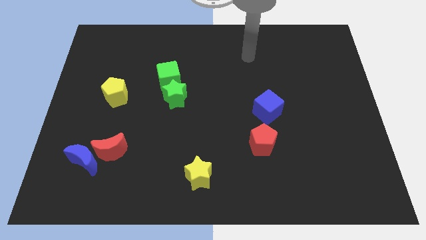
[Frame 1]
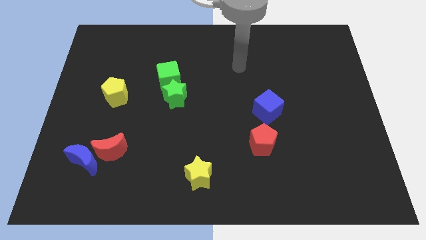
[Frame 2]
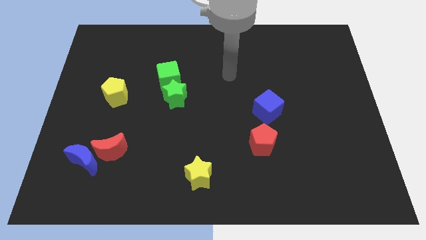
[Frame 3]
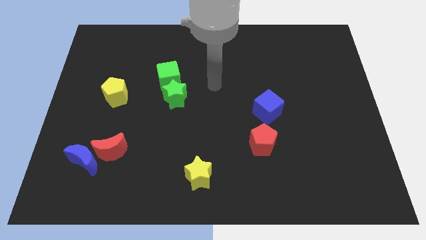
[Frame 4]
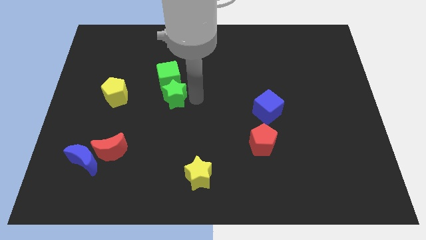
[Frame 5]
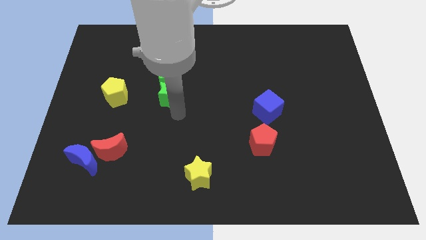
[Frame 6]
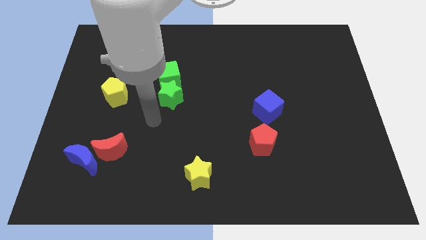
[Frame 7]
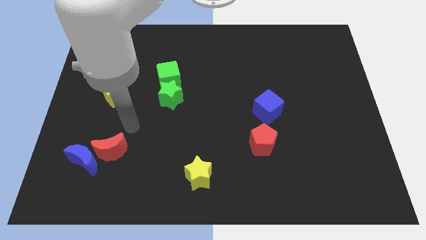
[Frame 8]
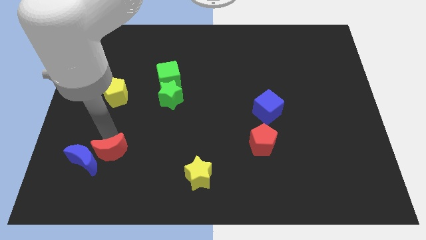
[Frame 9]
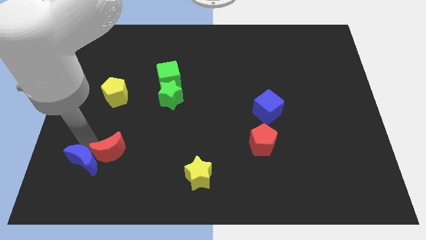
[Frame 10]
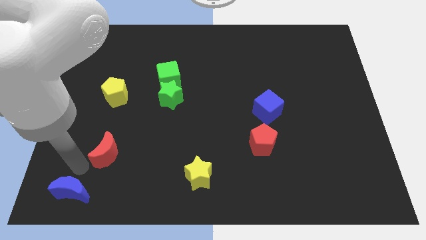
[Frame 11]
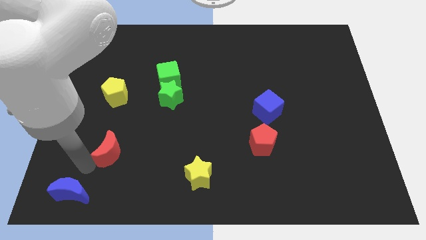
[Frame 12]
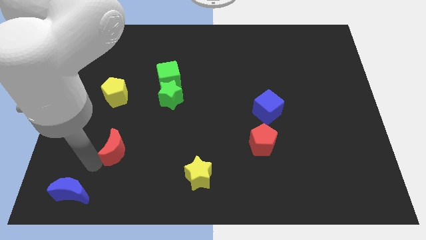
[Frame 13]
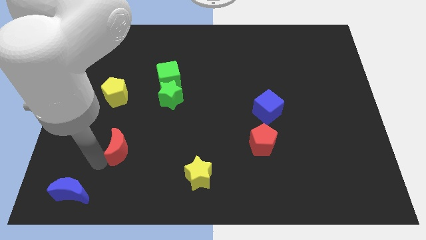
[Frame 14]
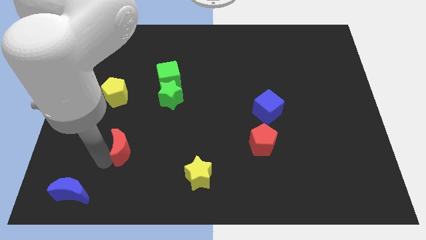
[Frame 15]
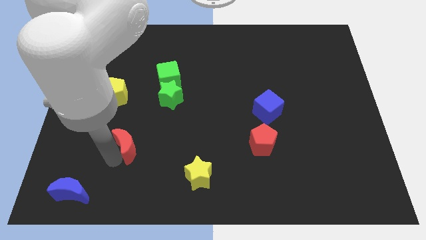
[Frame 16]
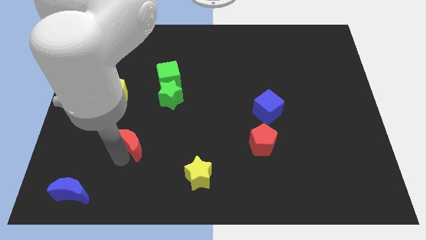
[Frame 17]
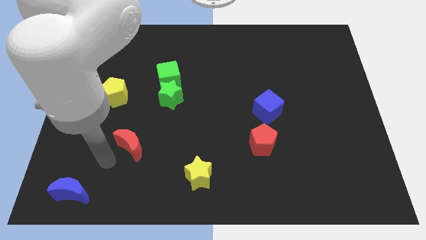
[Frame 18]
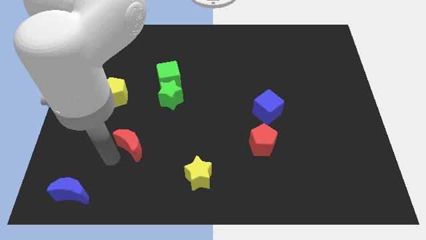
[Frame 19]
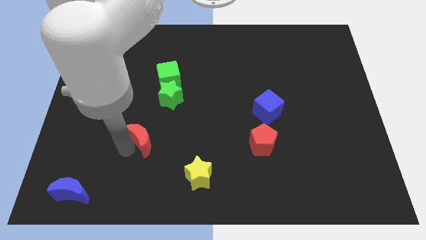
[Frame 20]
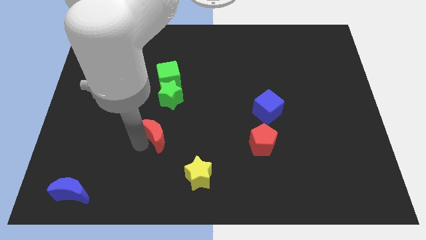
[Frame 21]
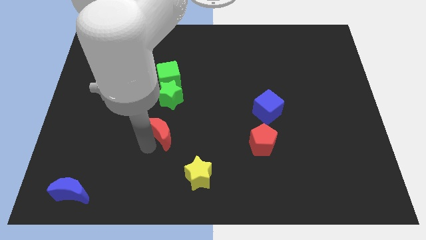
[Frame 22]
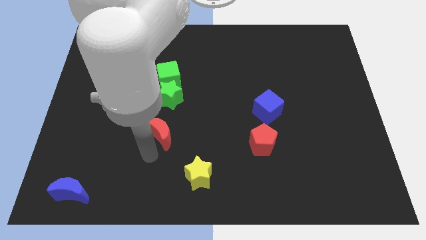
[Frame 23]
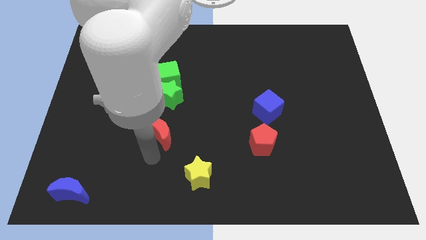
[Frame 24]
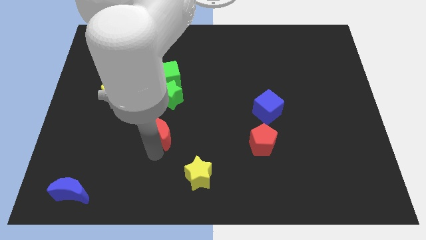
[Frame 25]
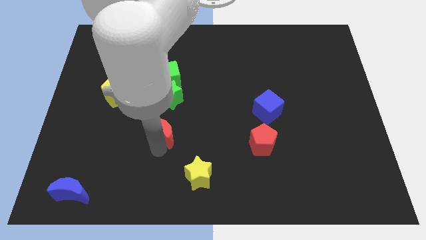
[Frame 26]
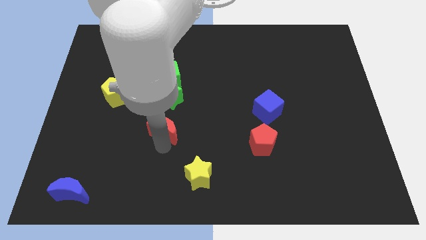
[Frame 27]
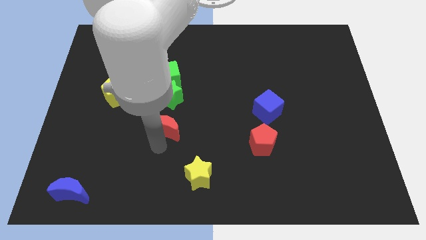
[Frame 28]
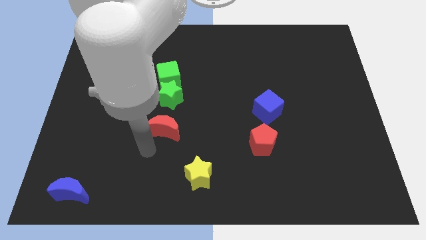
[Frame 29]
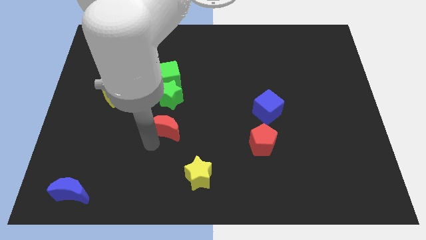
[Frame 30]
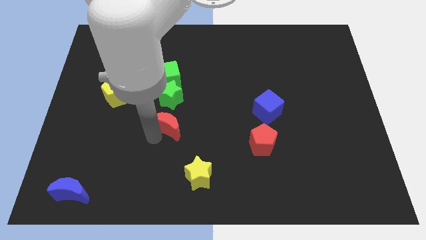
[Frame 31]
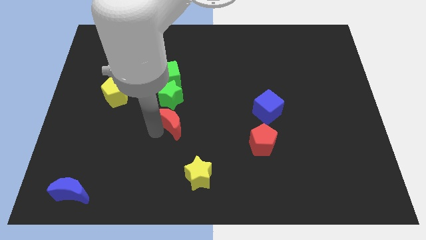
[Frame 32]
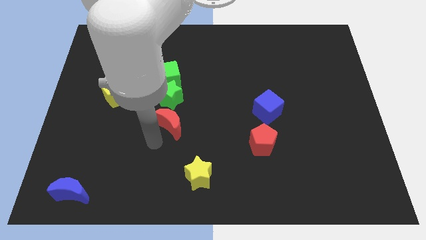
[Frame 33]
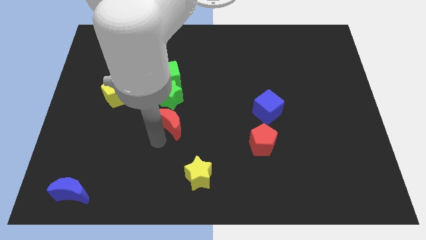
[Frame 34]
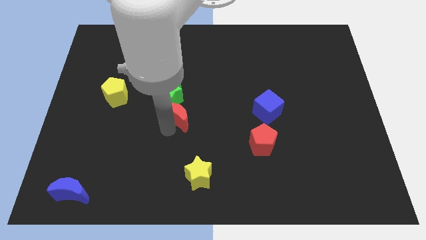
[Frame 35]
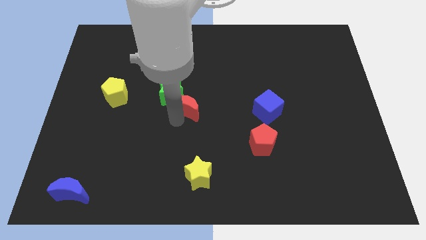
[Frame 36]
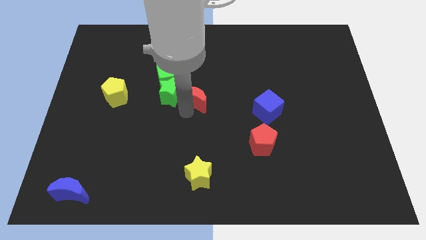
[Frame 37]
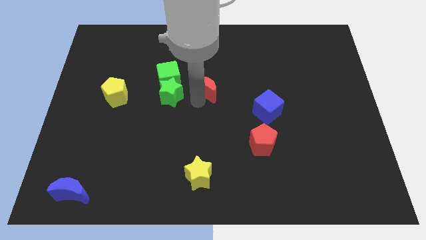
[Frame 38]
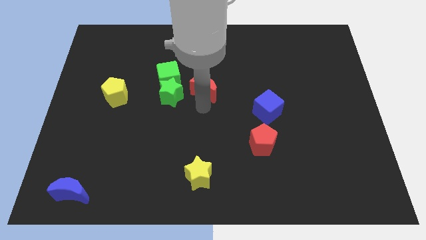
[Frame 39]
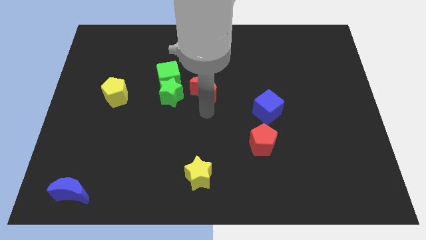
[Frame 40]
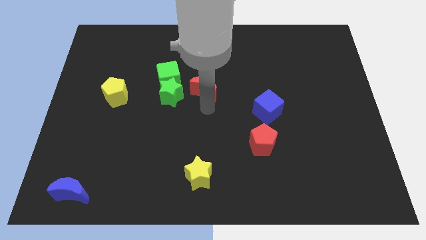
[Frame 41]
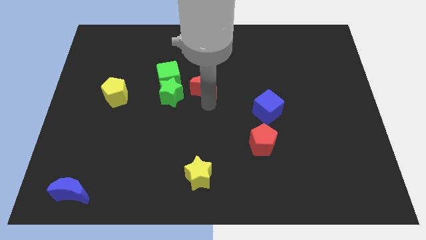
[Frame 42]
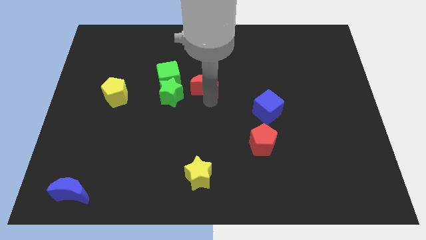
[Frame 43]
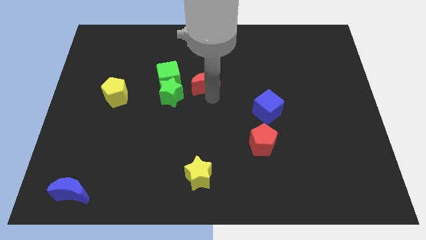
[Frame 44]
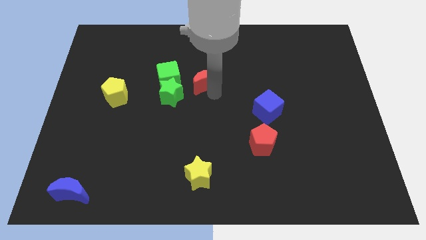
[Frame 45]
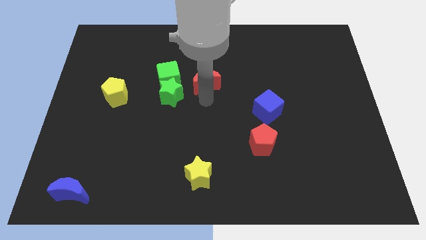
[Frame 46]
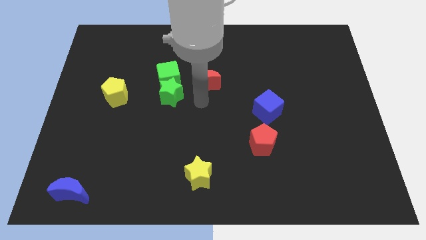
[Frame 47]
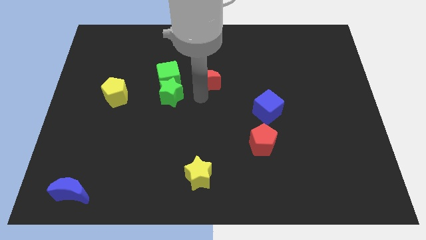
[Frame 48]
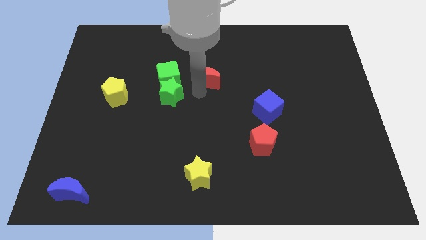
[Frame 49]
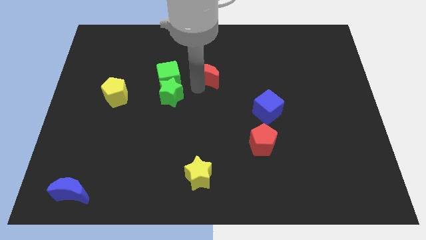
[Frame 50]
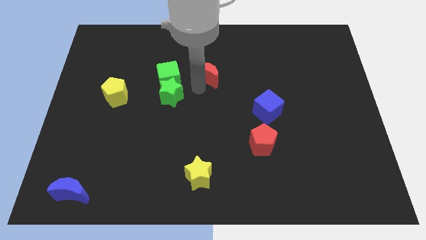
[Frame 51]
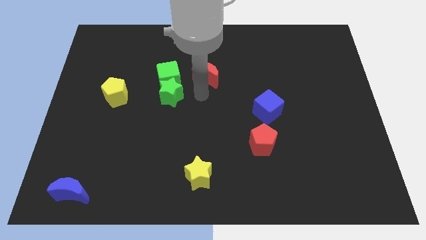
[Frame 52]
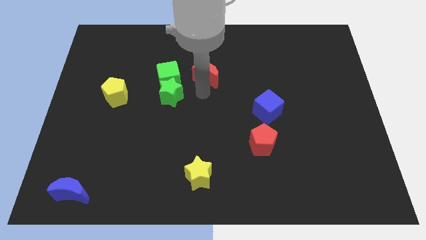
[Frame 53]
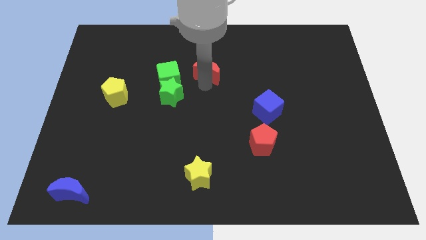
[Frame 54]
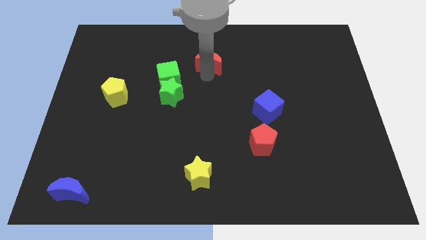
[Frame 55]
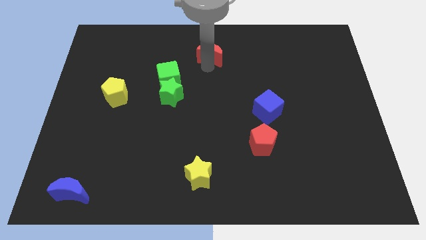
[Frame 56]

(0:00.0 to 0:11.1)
move the red moon to the top side

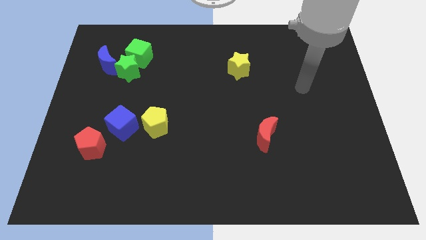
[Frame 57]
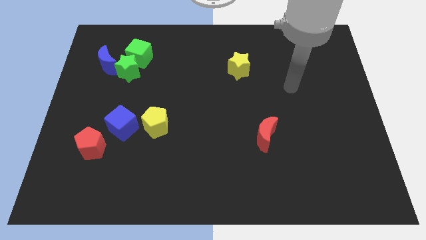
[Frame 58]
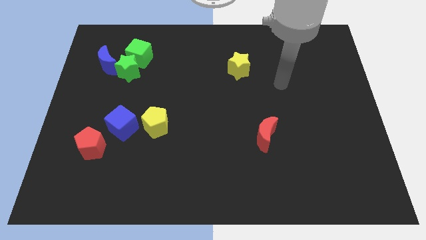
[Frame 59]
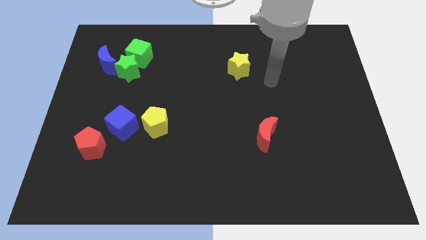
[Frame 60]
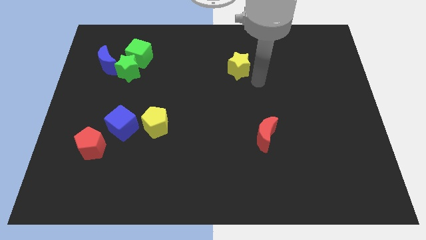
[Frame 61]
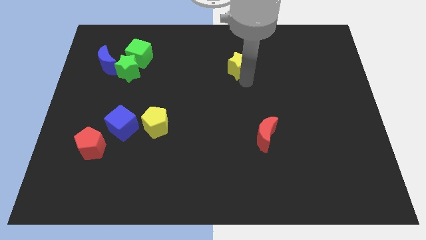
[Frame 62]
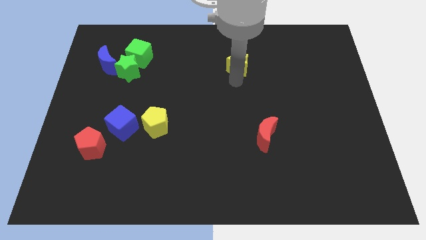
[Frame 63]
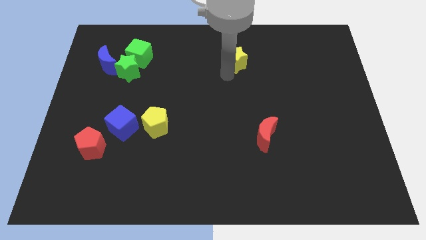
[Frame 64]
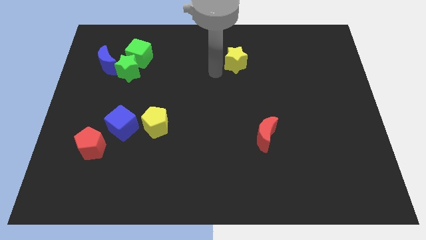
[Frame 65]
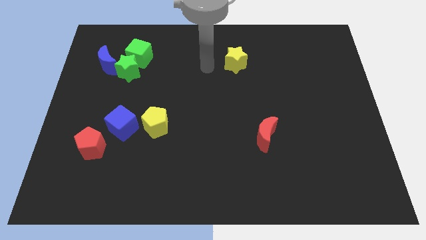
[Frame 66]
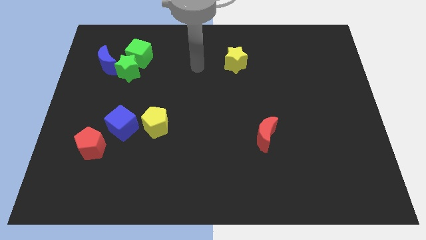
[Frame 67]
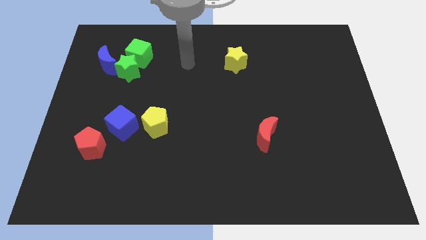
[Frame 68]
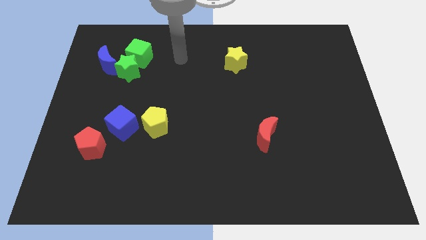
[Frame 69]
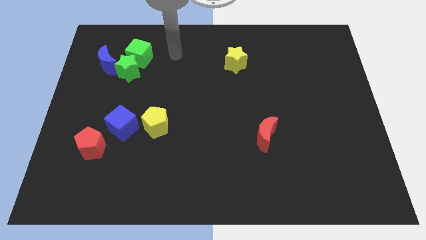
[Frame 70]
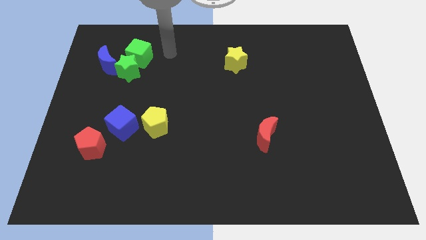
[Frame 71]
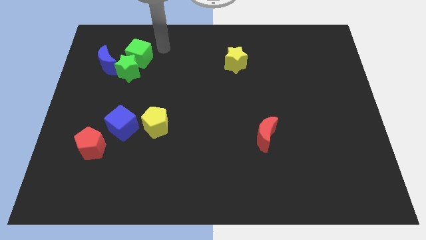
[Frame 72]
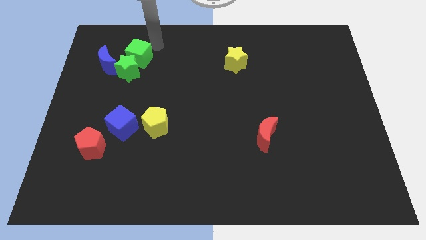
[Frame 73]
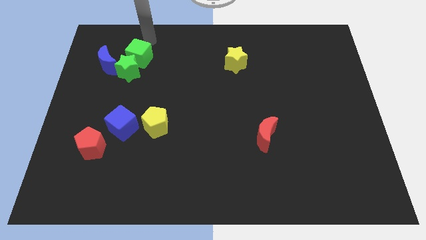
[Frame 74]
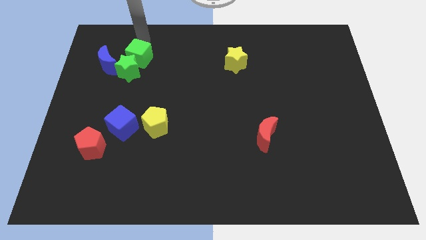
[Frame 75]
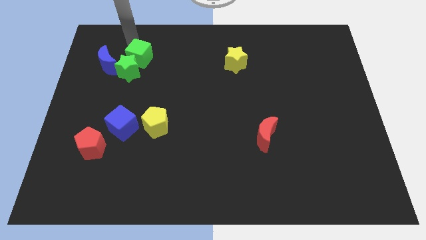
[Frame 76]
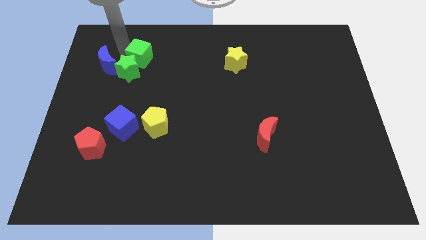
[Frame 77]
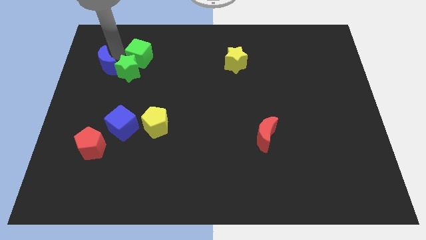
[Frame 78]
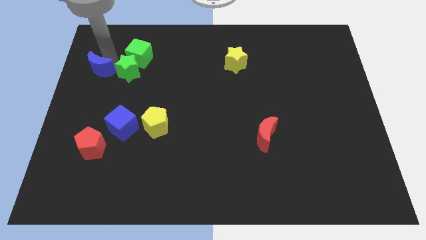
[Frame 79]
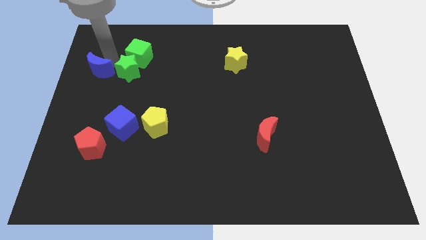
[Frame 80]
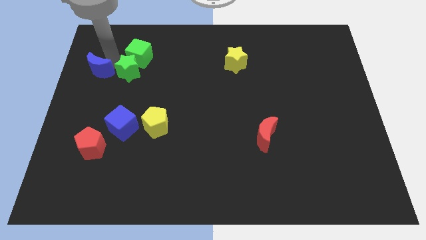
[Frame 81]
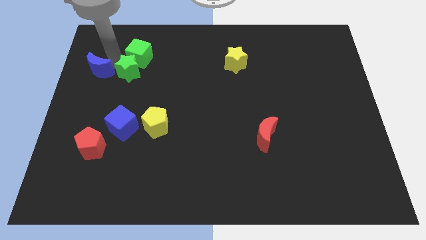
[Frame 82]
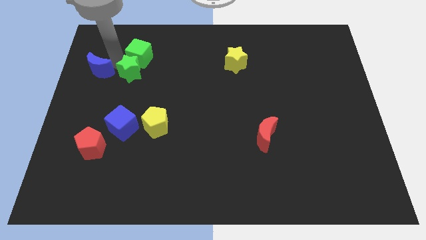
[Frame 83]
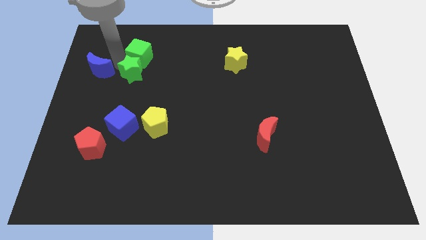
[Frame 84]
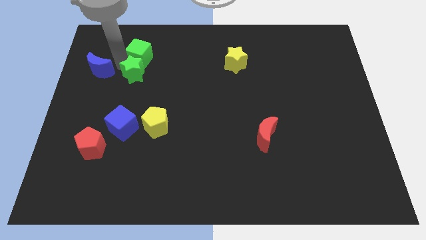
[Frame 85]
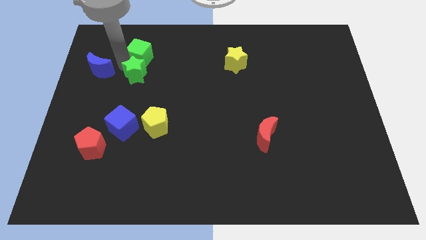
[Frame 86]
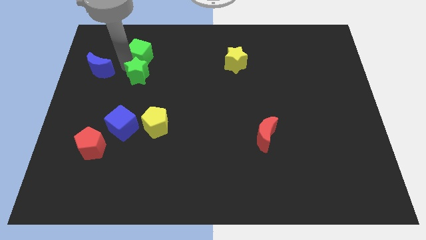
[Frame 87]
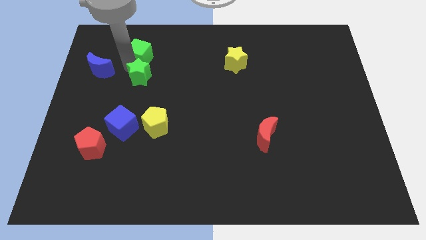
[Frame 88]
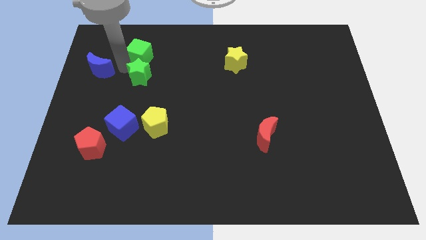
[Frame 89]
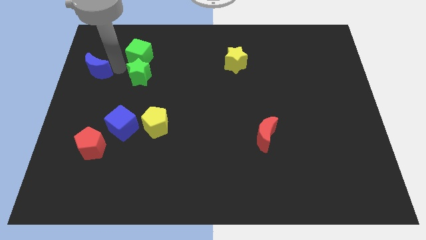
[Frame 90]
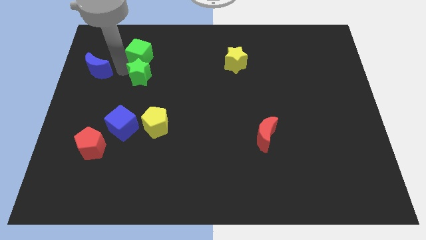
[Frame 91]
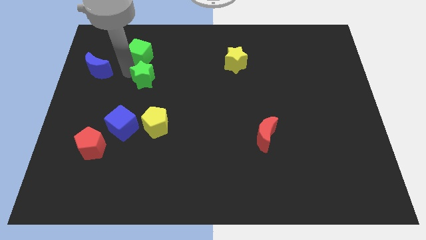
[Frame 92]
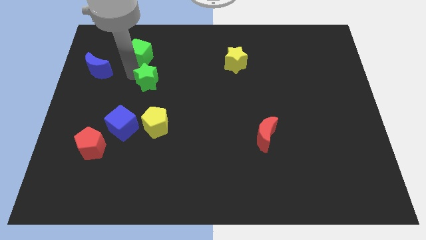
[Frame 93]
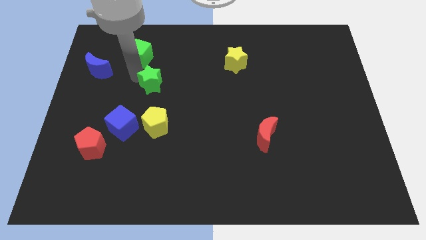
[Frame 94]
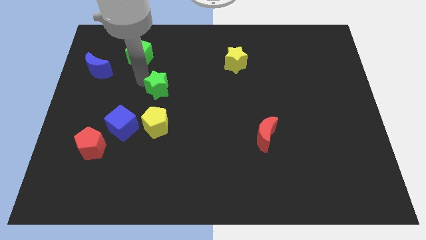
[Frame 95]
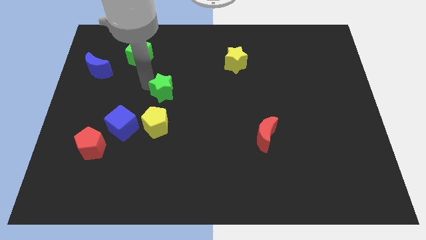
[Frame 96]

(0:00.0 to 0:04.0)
move the green star to the middle of the board
